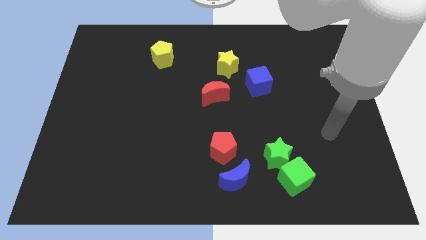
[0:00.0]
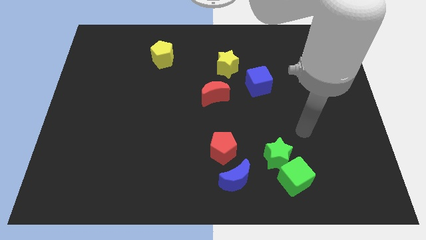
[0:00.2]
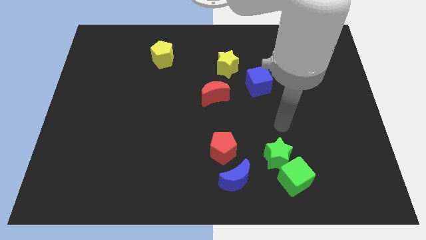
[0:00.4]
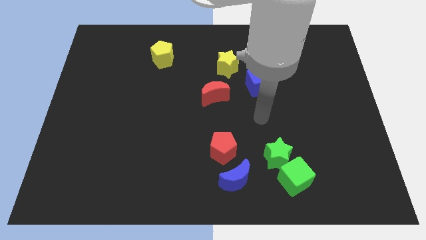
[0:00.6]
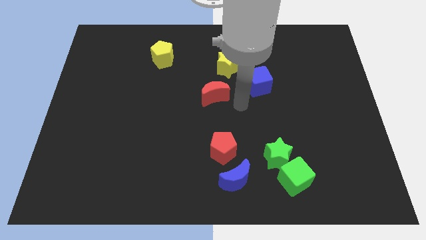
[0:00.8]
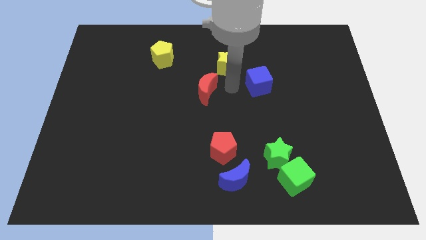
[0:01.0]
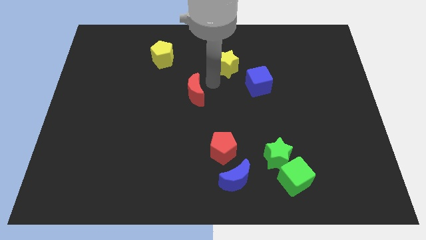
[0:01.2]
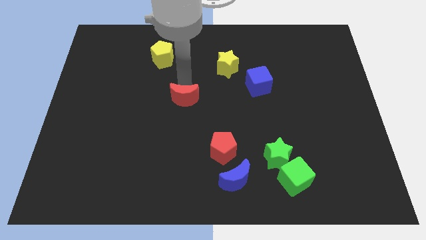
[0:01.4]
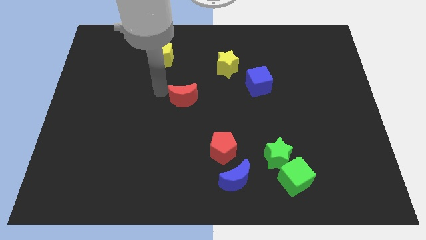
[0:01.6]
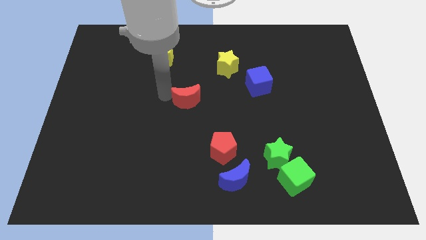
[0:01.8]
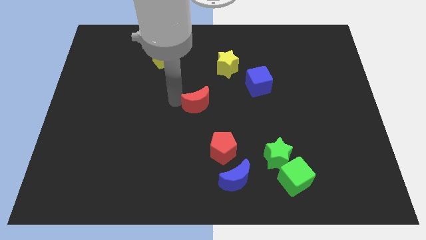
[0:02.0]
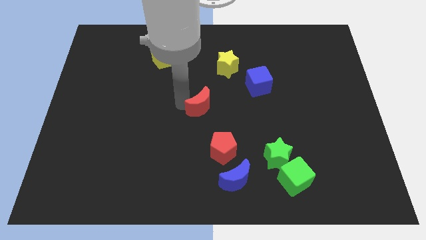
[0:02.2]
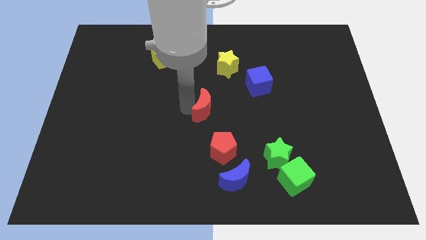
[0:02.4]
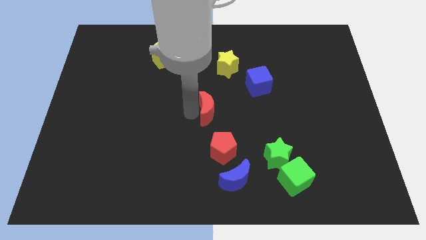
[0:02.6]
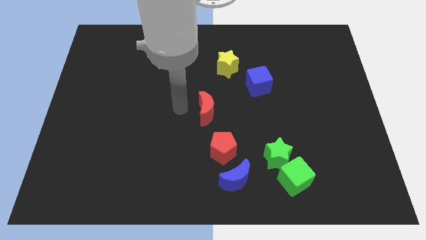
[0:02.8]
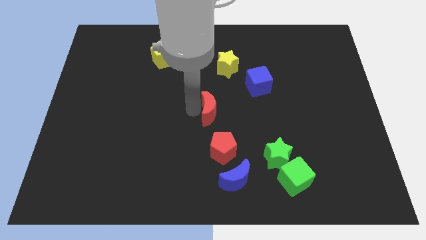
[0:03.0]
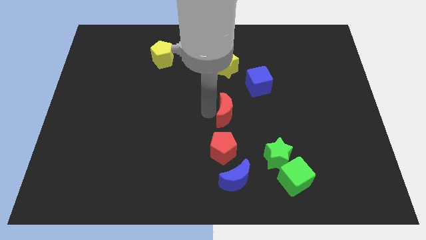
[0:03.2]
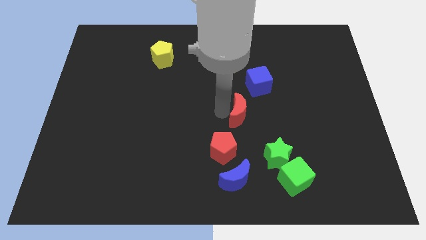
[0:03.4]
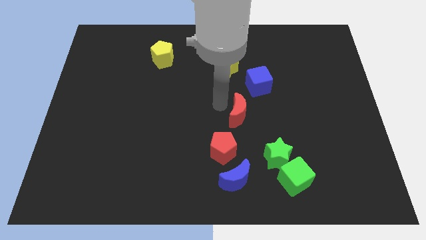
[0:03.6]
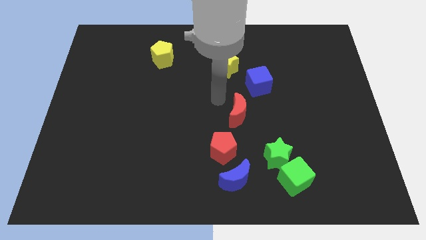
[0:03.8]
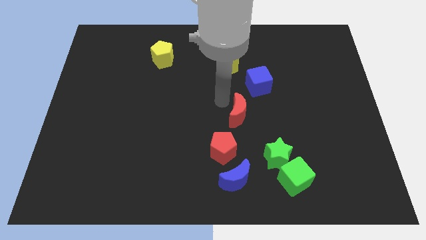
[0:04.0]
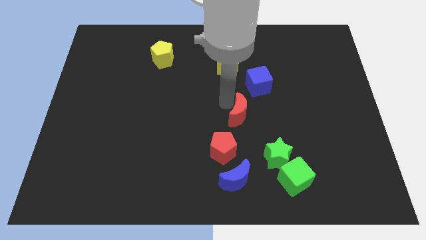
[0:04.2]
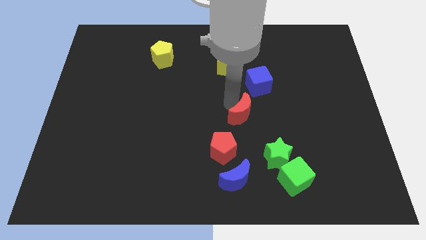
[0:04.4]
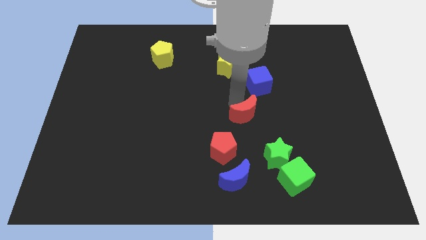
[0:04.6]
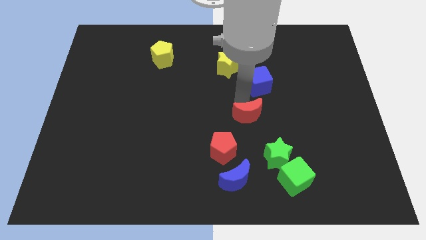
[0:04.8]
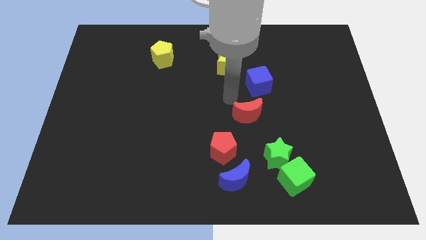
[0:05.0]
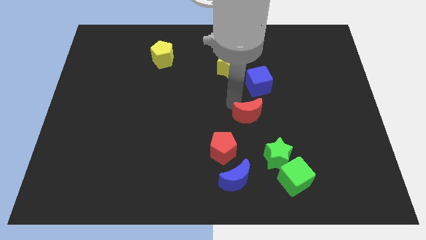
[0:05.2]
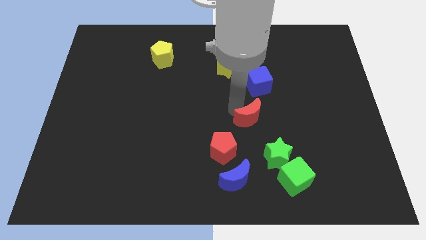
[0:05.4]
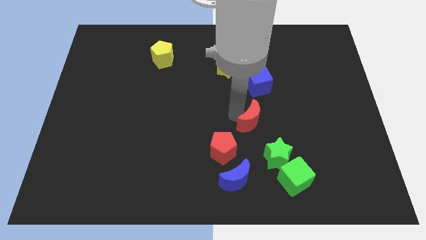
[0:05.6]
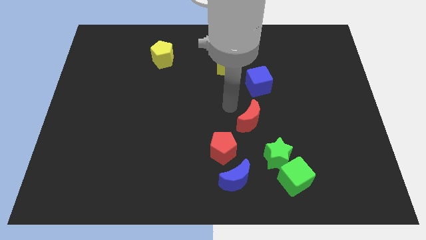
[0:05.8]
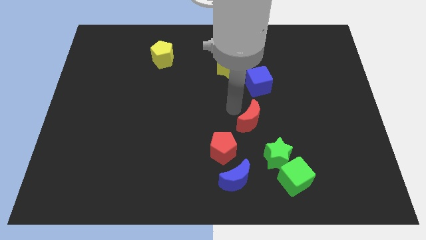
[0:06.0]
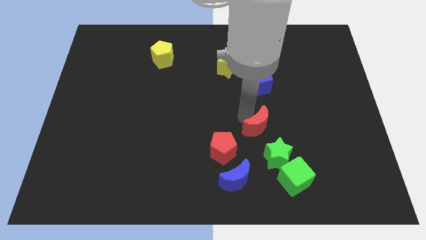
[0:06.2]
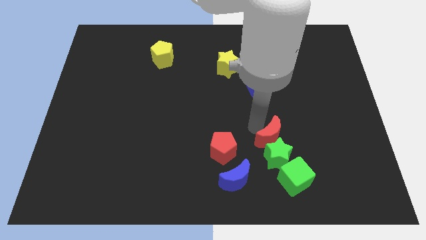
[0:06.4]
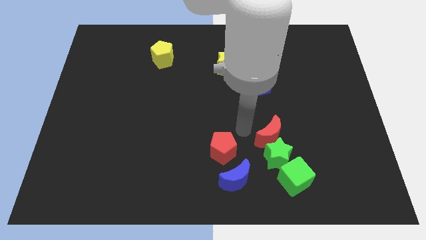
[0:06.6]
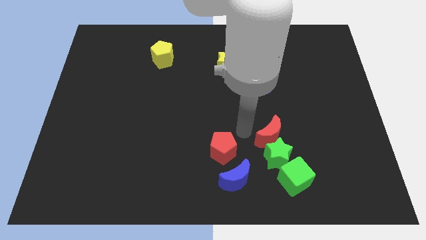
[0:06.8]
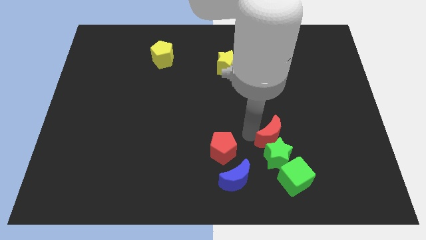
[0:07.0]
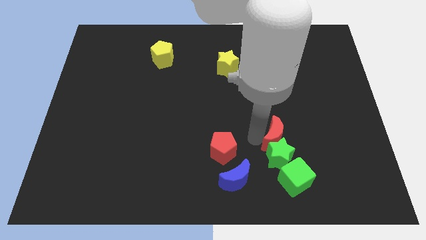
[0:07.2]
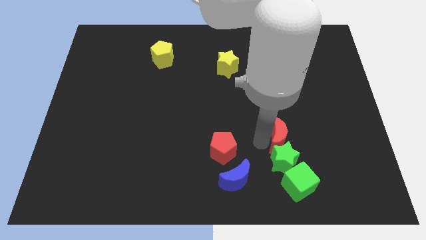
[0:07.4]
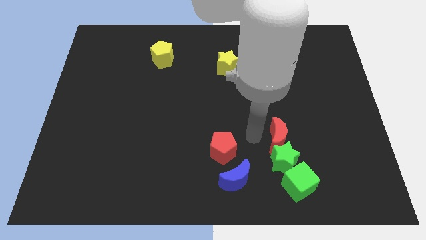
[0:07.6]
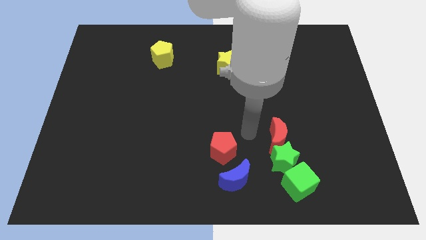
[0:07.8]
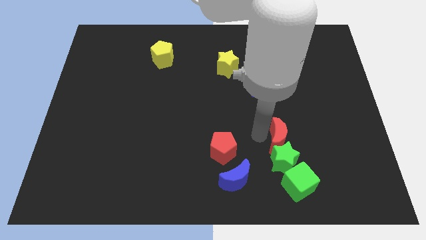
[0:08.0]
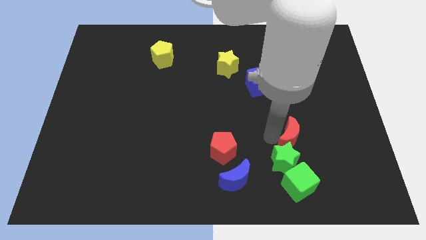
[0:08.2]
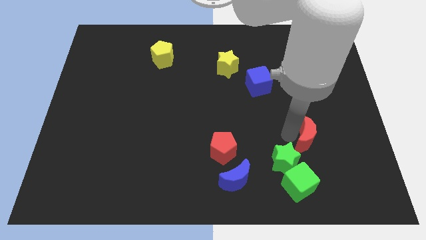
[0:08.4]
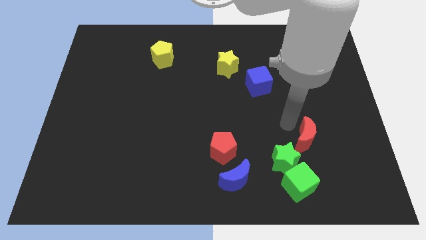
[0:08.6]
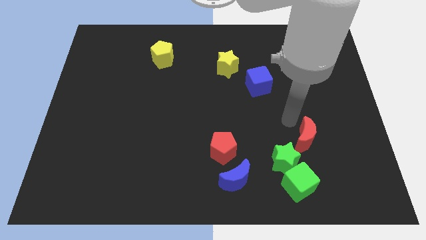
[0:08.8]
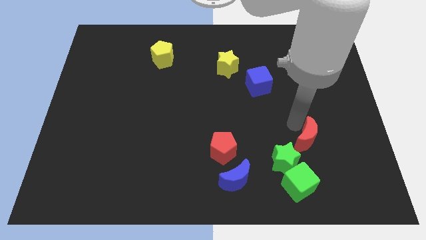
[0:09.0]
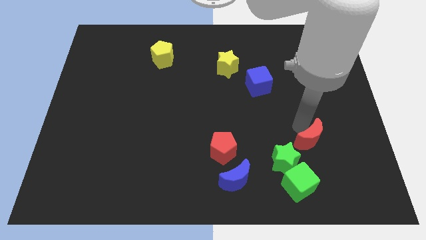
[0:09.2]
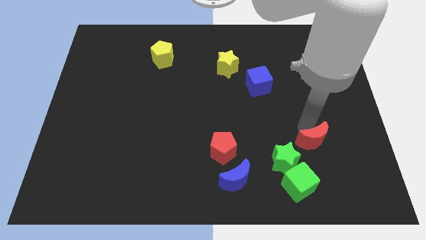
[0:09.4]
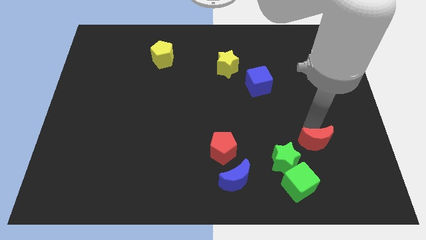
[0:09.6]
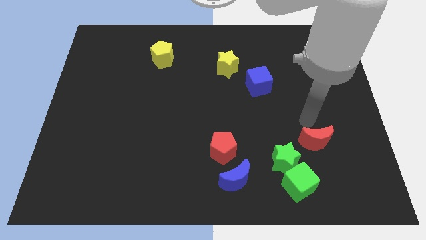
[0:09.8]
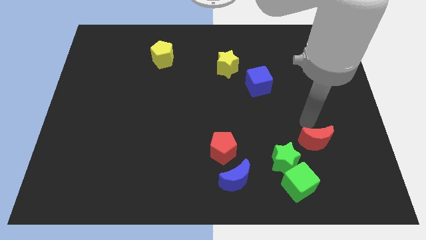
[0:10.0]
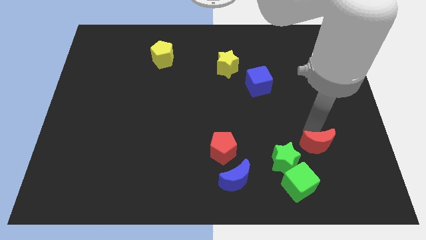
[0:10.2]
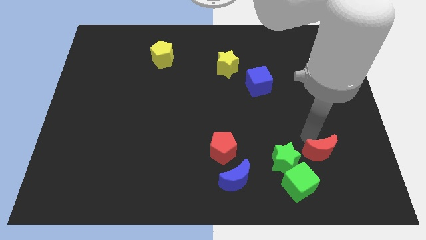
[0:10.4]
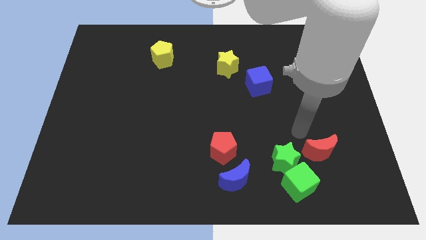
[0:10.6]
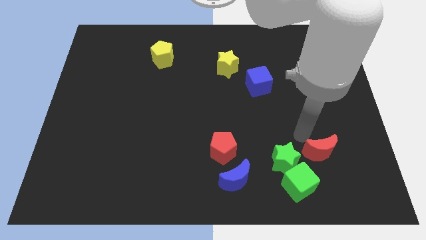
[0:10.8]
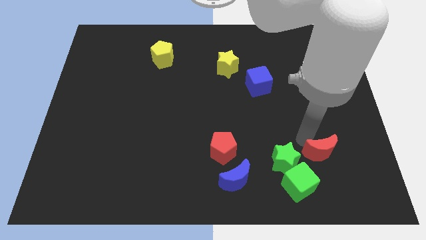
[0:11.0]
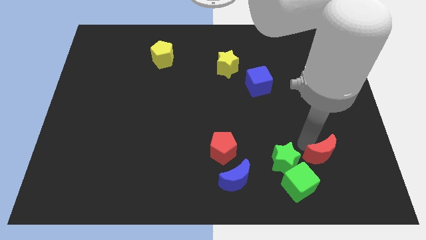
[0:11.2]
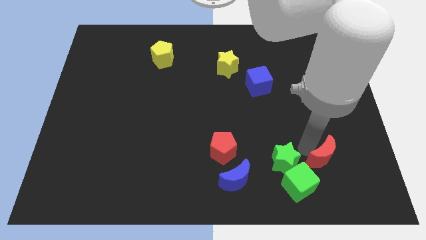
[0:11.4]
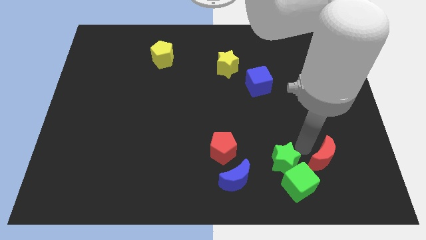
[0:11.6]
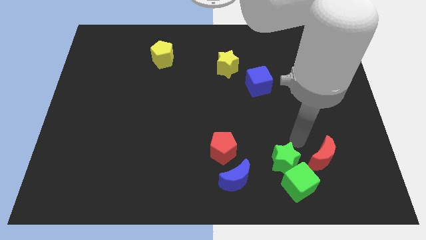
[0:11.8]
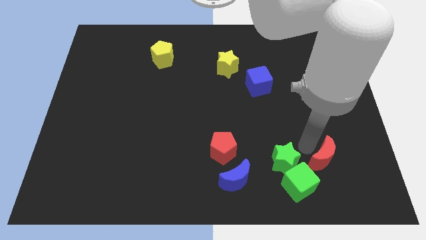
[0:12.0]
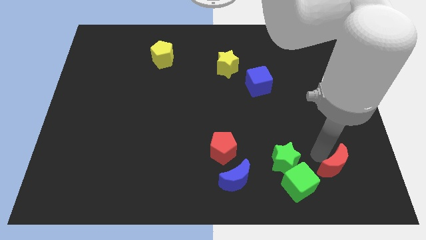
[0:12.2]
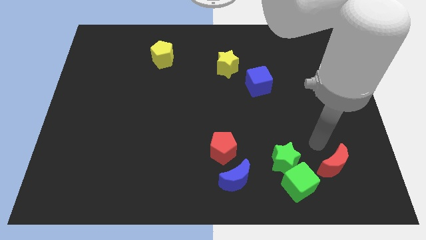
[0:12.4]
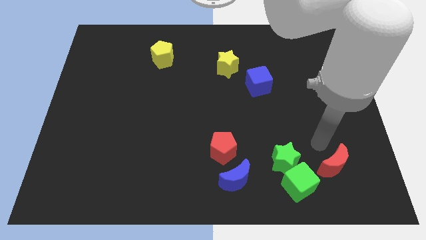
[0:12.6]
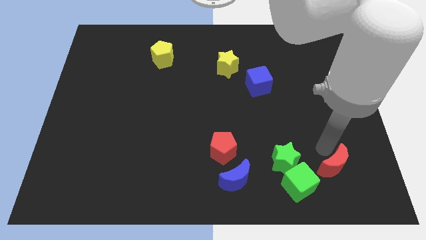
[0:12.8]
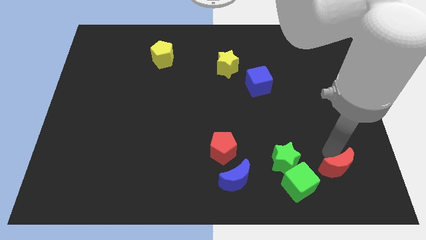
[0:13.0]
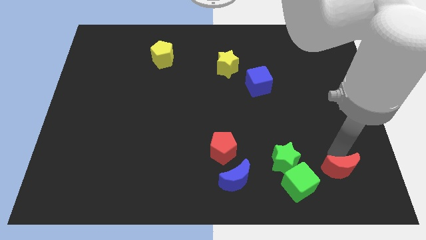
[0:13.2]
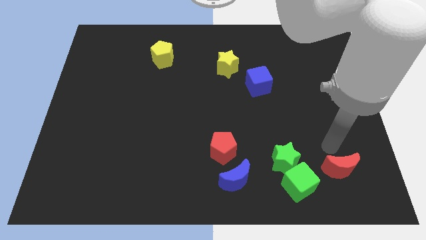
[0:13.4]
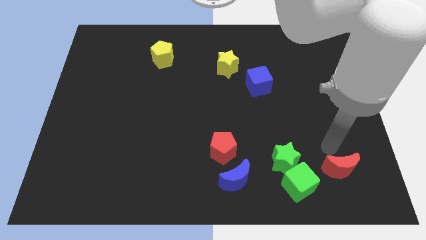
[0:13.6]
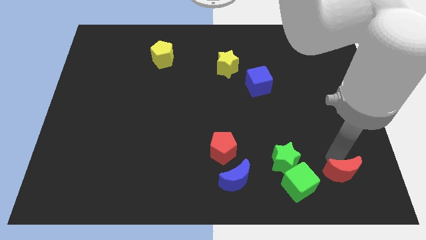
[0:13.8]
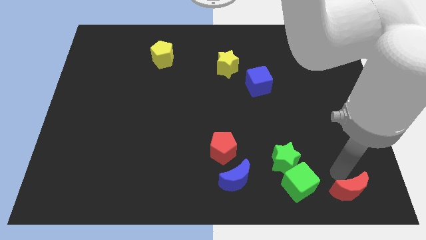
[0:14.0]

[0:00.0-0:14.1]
slide the red moon to the bottom right
